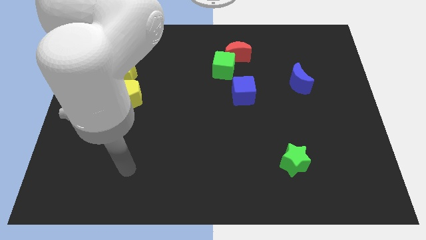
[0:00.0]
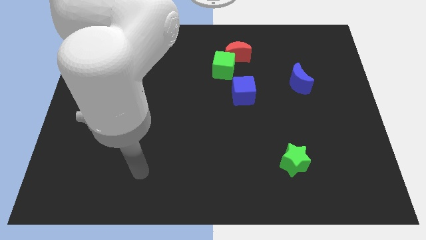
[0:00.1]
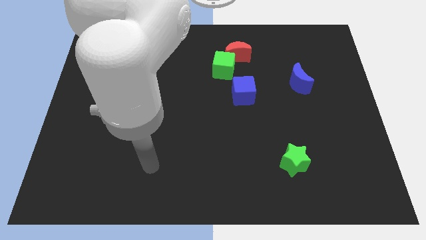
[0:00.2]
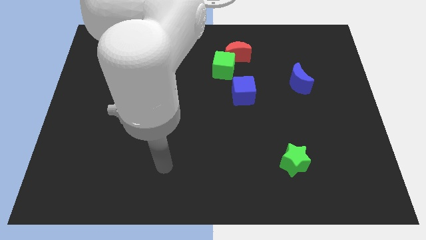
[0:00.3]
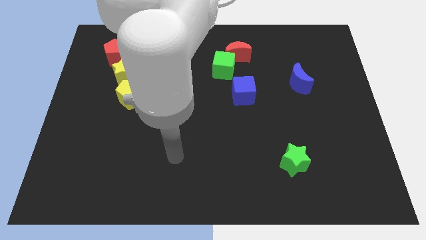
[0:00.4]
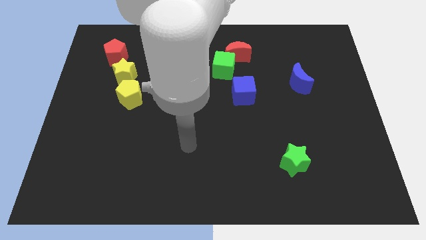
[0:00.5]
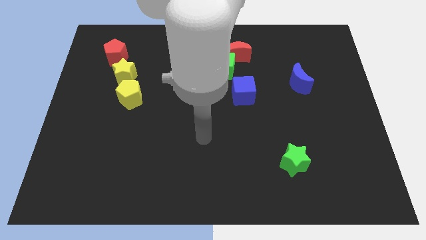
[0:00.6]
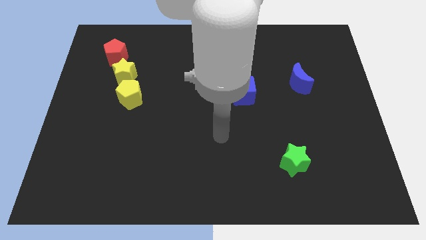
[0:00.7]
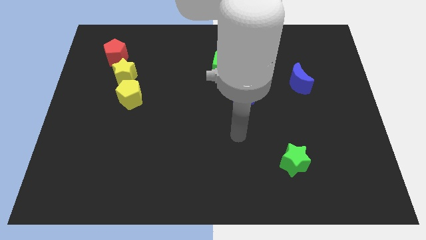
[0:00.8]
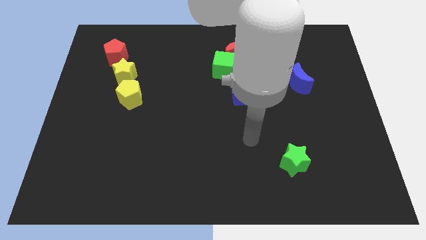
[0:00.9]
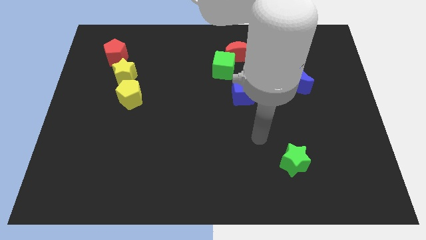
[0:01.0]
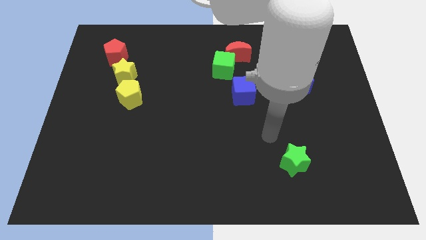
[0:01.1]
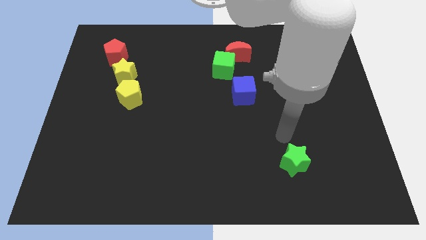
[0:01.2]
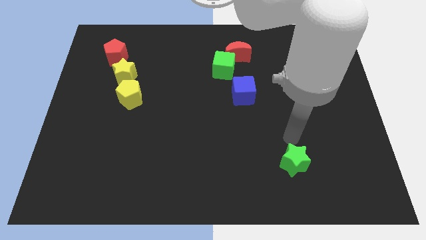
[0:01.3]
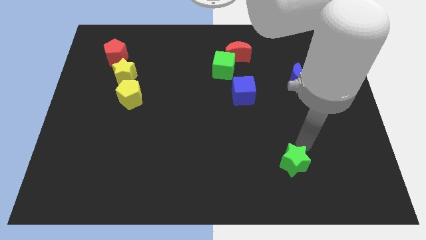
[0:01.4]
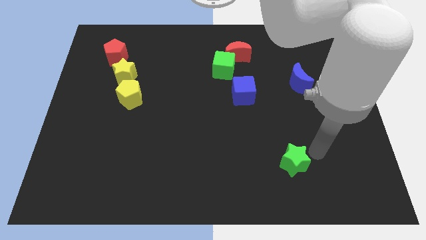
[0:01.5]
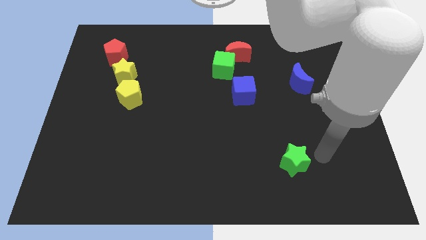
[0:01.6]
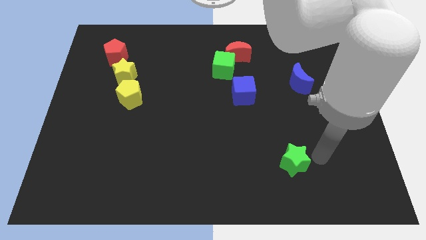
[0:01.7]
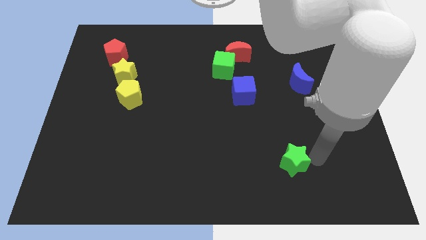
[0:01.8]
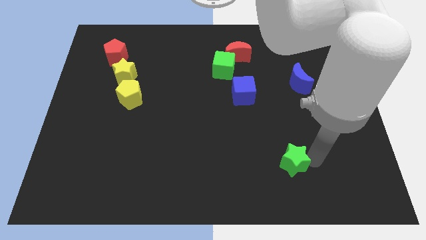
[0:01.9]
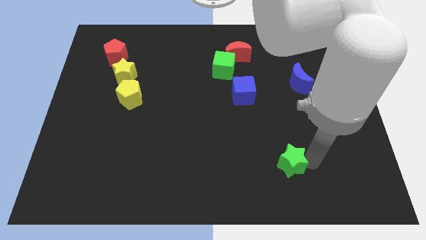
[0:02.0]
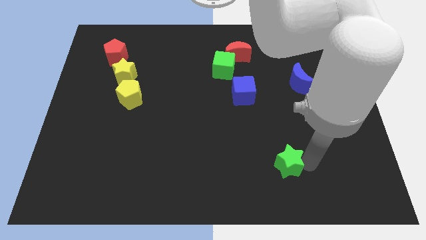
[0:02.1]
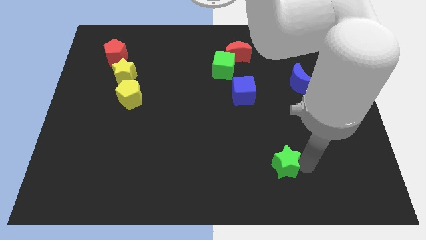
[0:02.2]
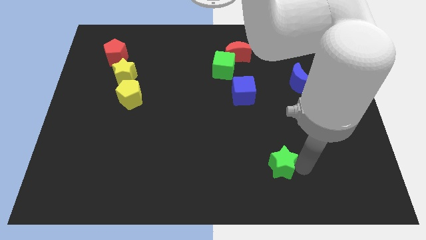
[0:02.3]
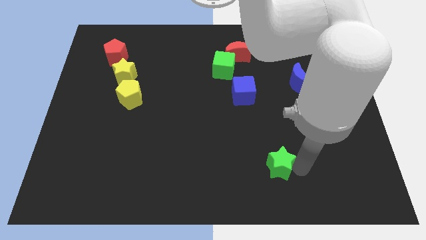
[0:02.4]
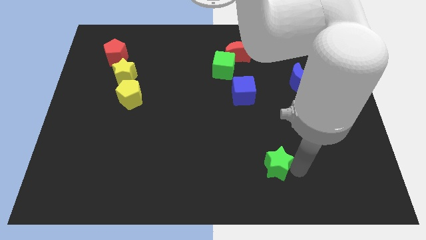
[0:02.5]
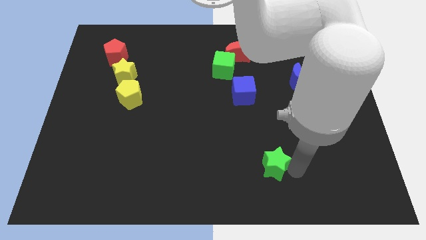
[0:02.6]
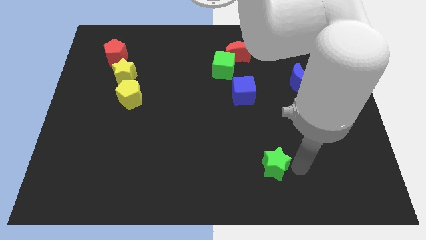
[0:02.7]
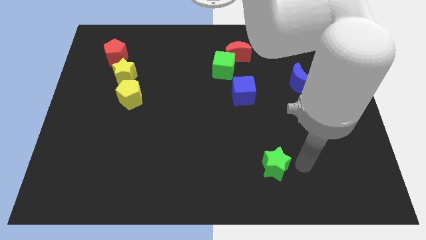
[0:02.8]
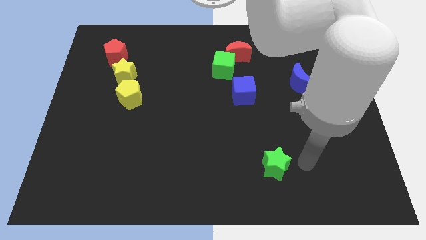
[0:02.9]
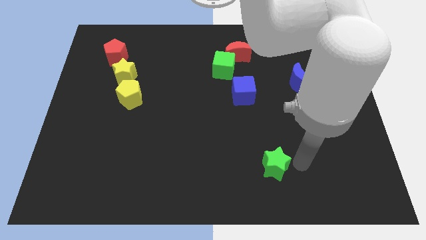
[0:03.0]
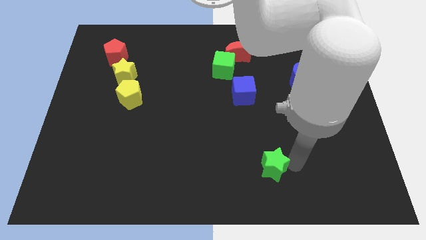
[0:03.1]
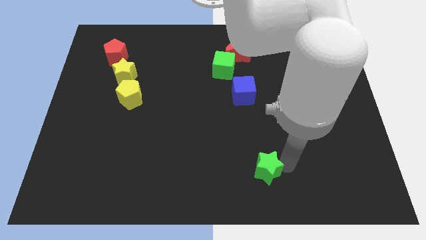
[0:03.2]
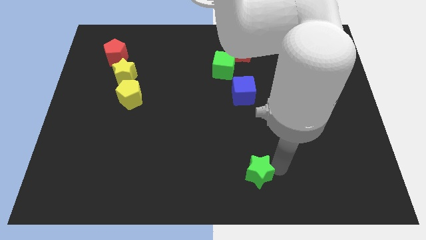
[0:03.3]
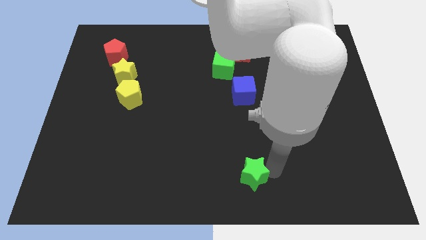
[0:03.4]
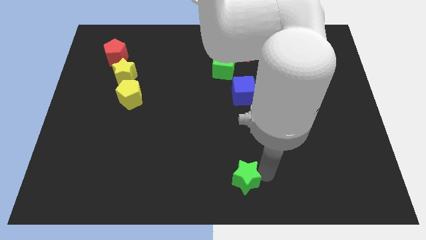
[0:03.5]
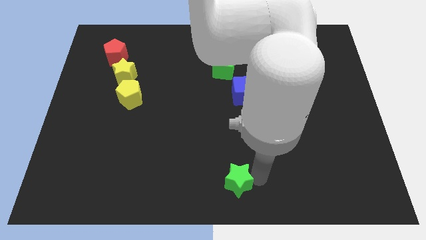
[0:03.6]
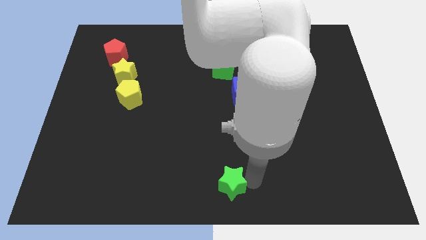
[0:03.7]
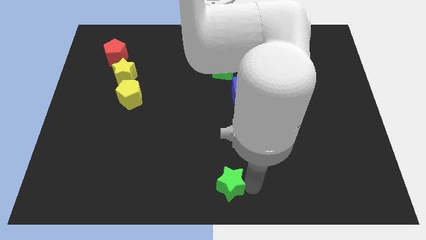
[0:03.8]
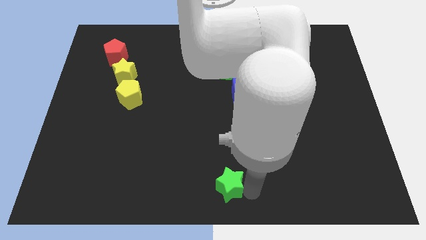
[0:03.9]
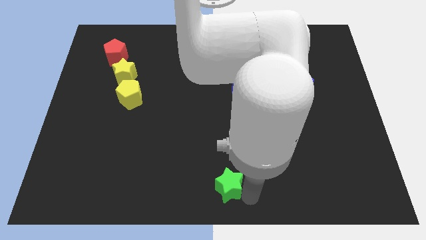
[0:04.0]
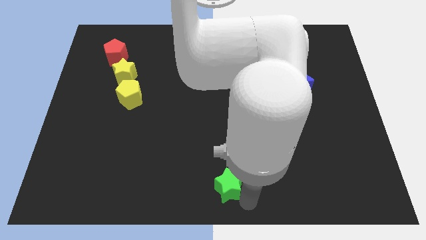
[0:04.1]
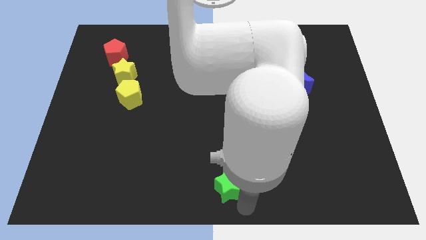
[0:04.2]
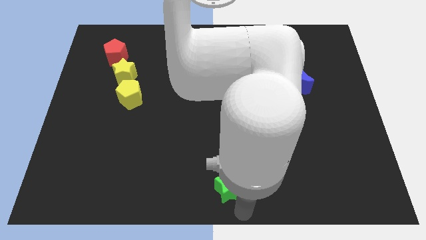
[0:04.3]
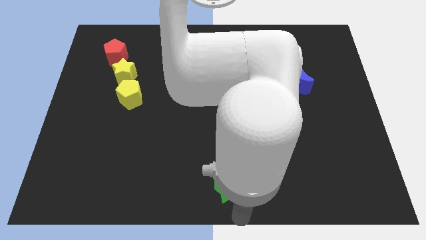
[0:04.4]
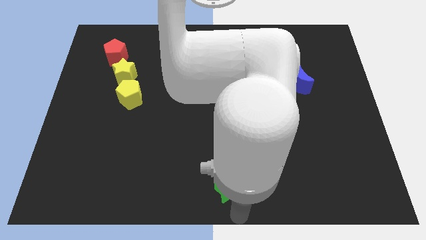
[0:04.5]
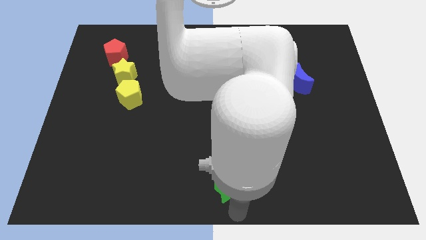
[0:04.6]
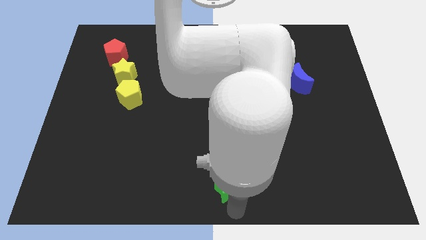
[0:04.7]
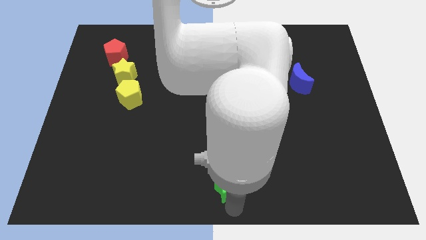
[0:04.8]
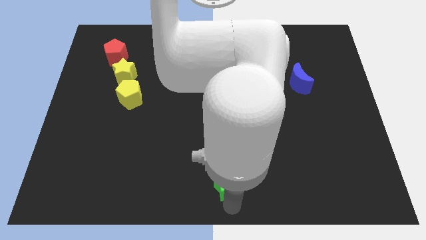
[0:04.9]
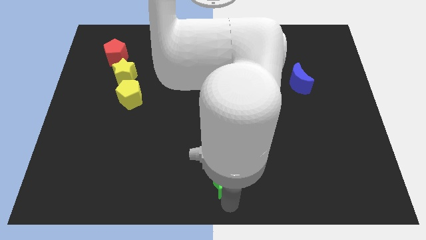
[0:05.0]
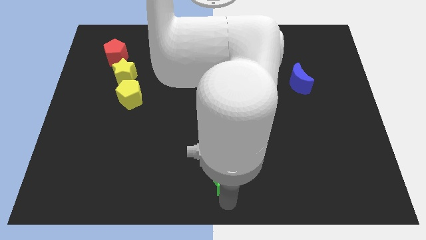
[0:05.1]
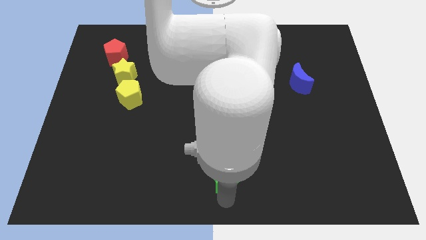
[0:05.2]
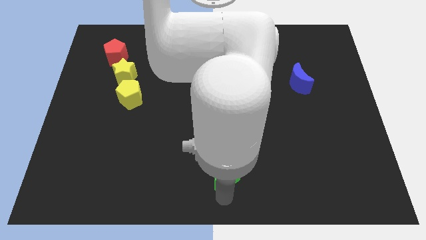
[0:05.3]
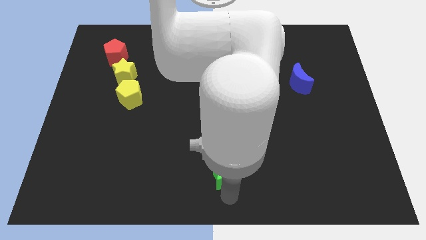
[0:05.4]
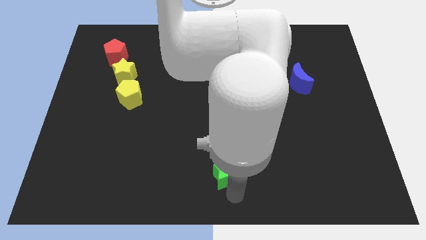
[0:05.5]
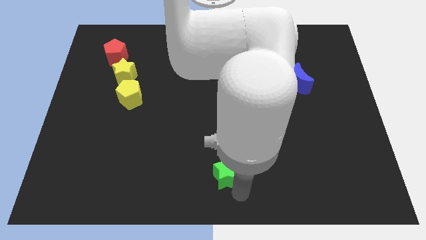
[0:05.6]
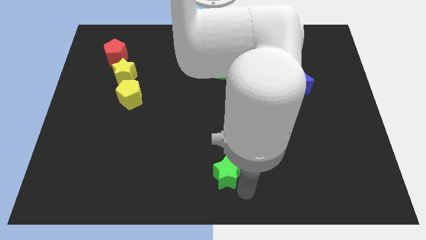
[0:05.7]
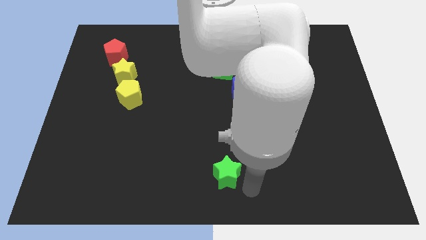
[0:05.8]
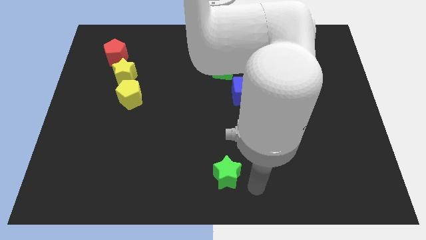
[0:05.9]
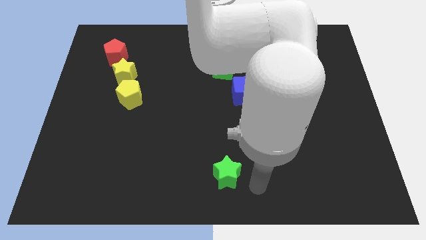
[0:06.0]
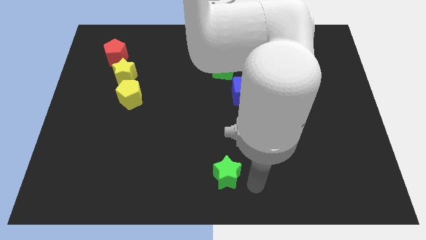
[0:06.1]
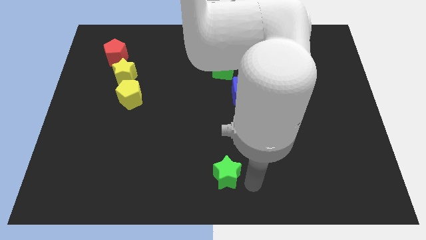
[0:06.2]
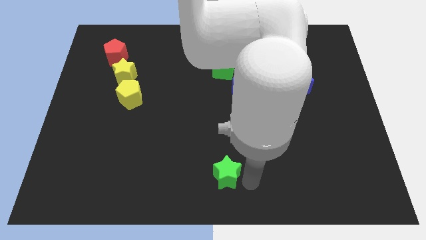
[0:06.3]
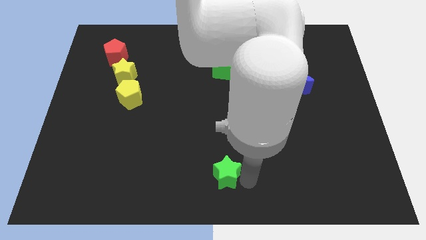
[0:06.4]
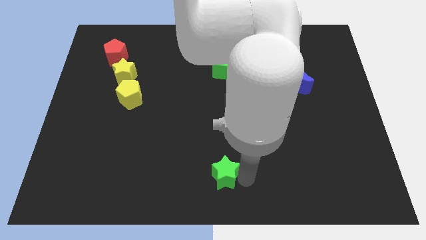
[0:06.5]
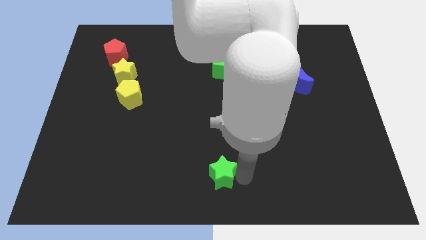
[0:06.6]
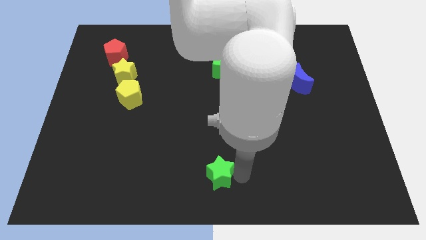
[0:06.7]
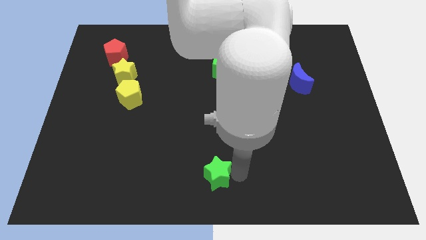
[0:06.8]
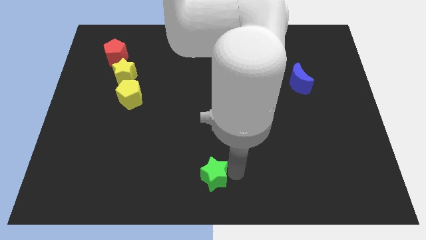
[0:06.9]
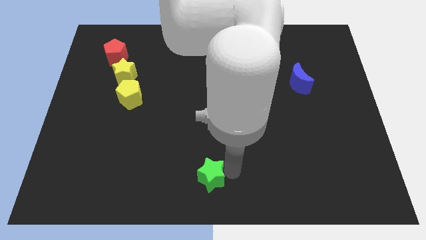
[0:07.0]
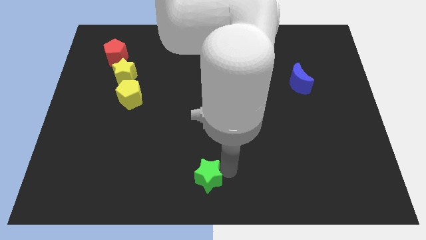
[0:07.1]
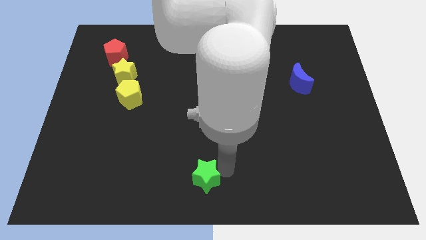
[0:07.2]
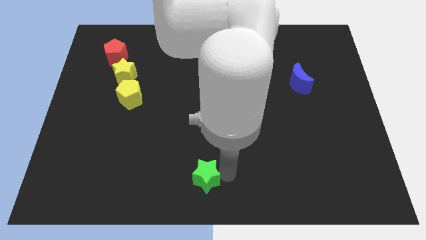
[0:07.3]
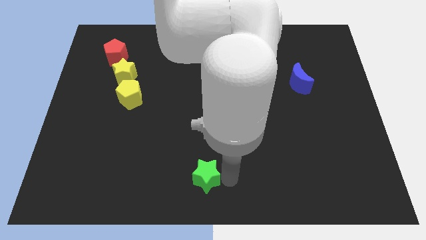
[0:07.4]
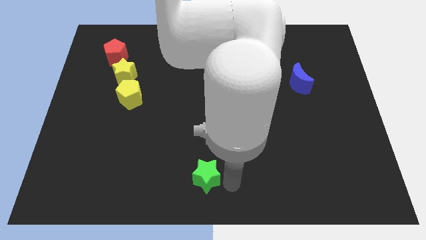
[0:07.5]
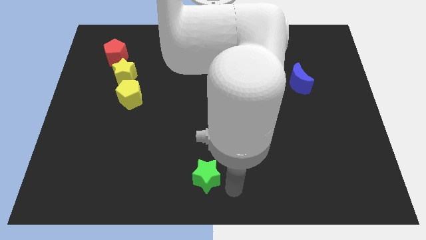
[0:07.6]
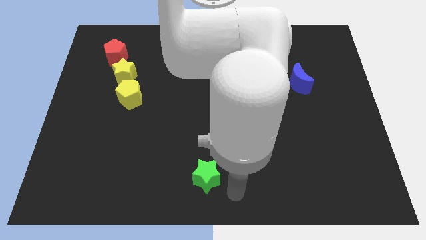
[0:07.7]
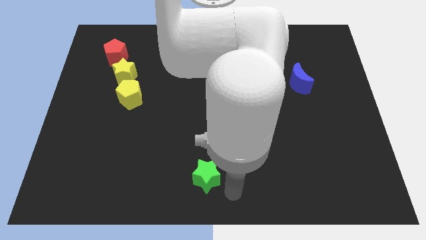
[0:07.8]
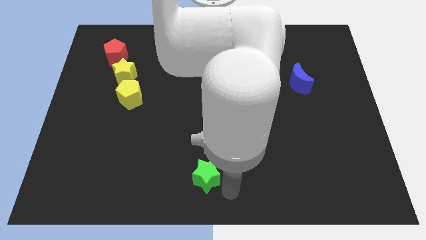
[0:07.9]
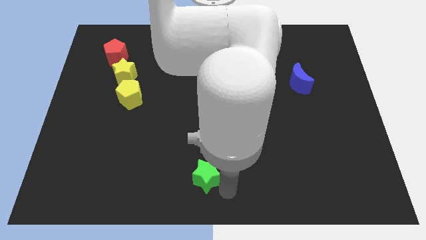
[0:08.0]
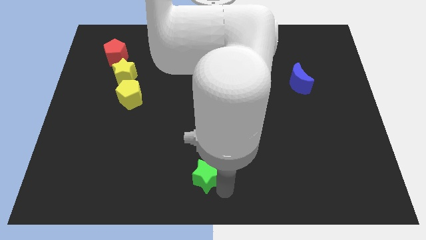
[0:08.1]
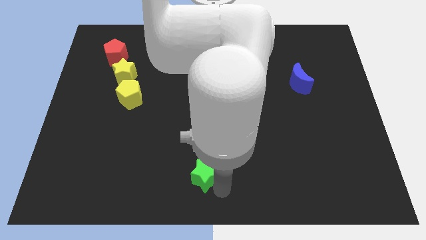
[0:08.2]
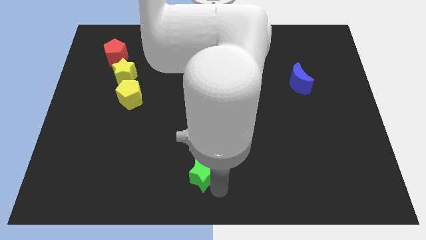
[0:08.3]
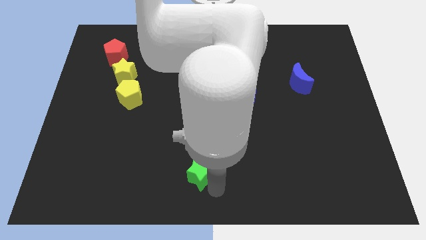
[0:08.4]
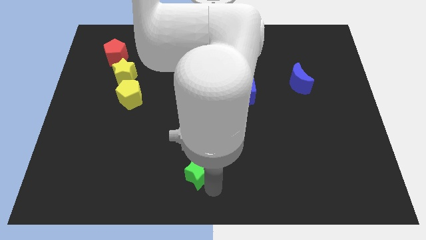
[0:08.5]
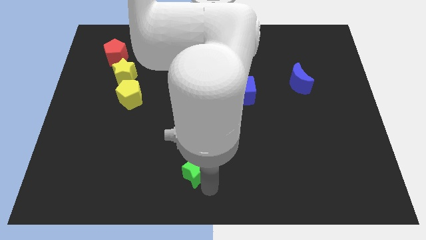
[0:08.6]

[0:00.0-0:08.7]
slide the green star left
